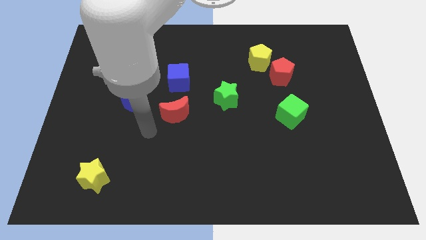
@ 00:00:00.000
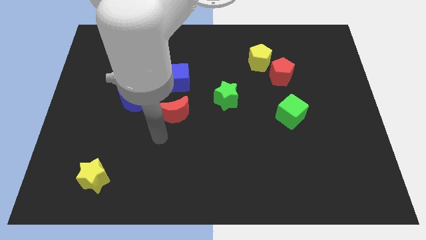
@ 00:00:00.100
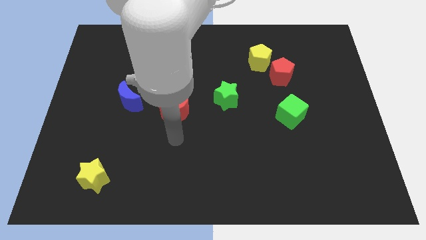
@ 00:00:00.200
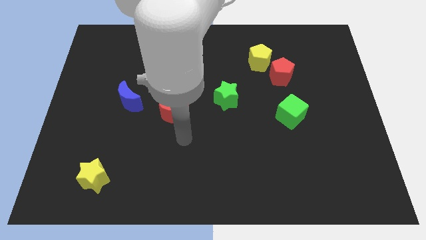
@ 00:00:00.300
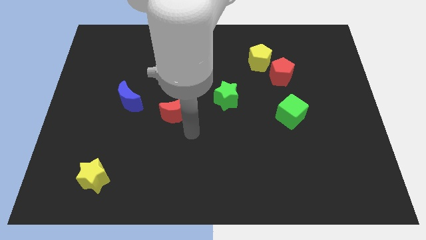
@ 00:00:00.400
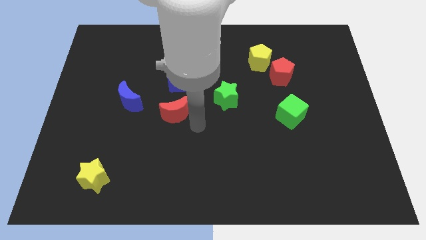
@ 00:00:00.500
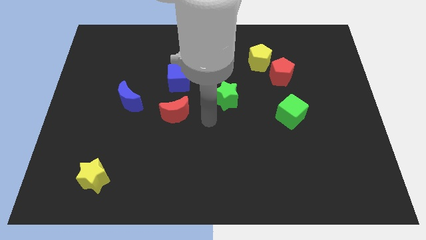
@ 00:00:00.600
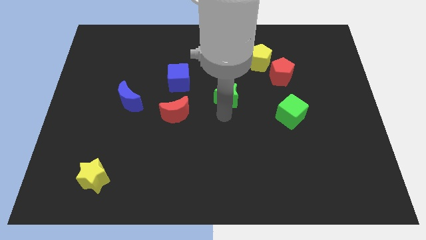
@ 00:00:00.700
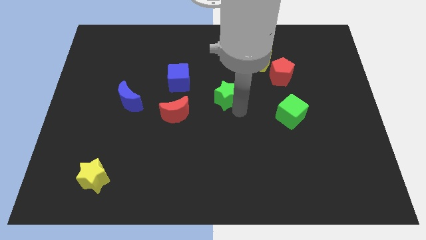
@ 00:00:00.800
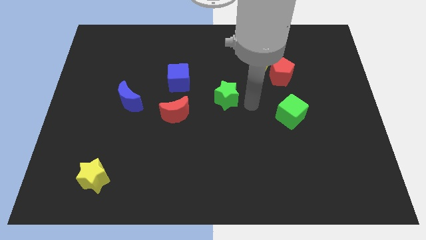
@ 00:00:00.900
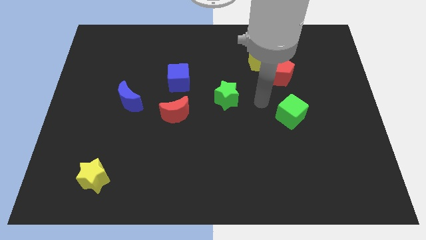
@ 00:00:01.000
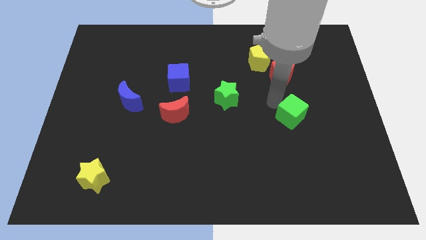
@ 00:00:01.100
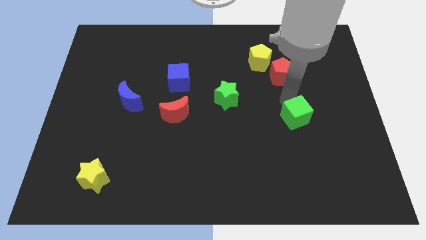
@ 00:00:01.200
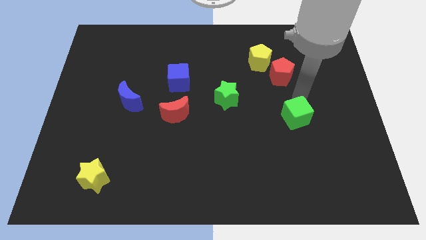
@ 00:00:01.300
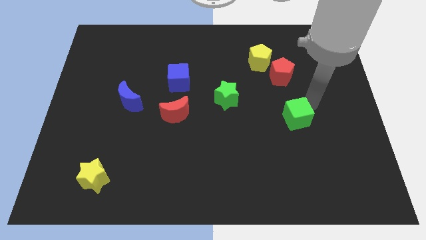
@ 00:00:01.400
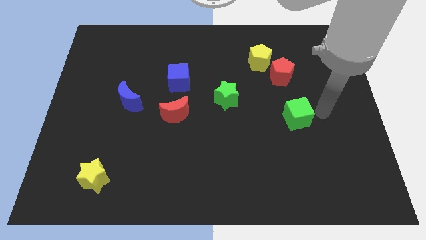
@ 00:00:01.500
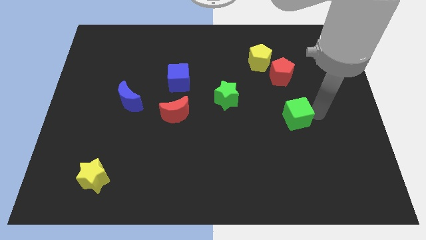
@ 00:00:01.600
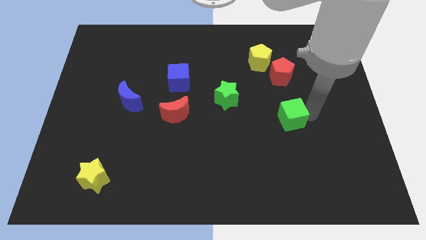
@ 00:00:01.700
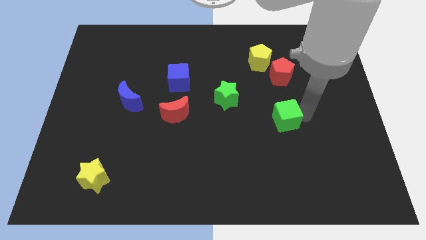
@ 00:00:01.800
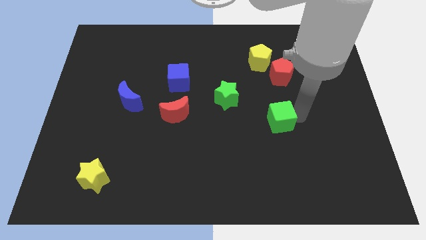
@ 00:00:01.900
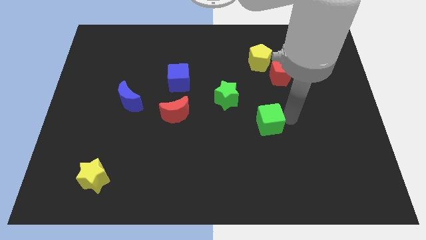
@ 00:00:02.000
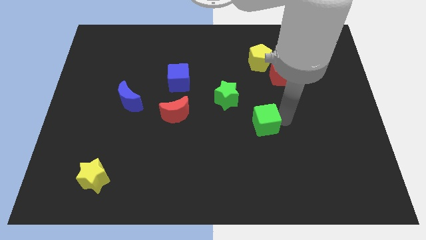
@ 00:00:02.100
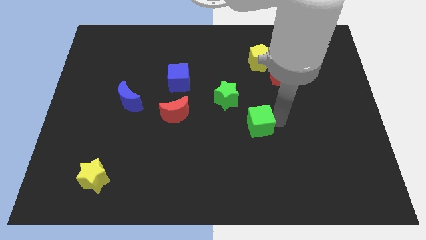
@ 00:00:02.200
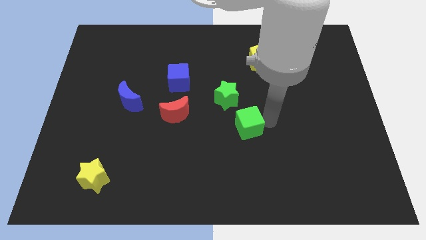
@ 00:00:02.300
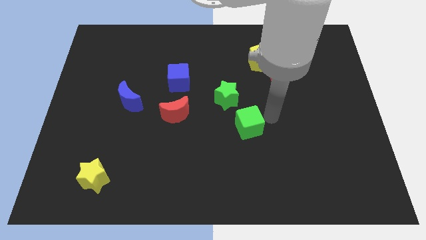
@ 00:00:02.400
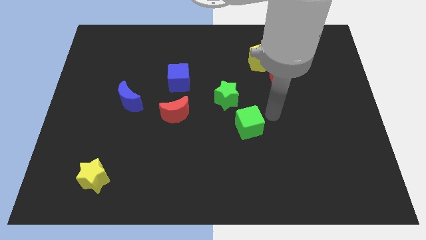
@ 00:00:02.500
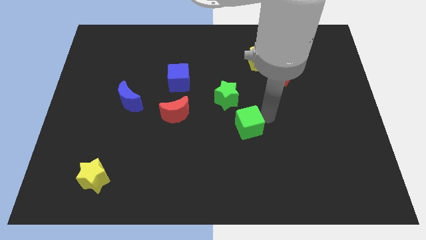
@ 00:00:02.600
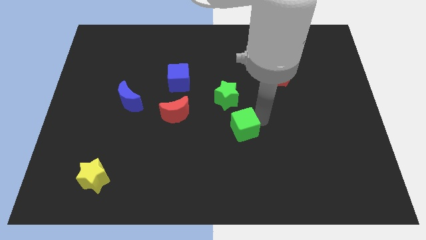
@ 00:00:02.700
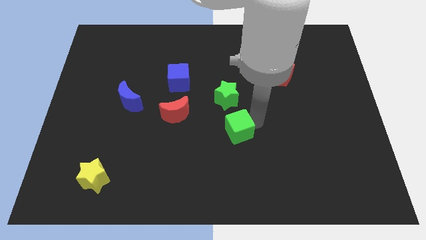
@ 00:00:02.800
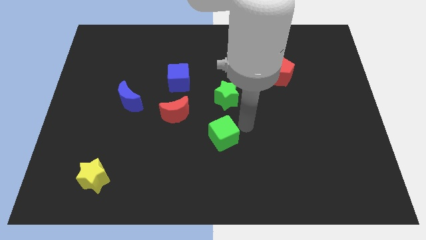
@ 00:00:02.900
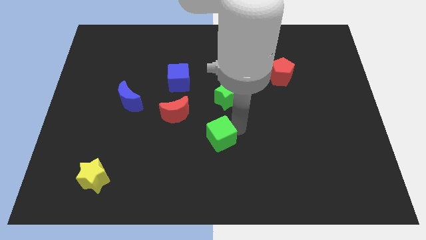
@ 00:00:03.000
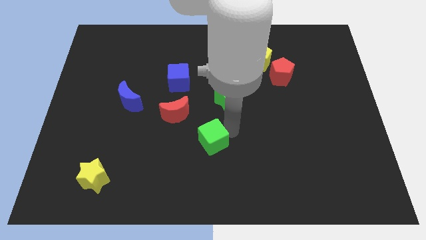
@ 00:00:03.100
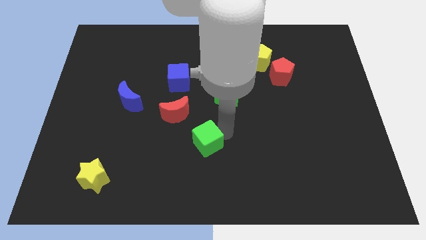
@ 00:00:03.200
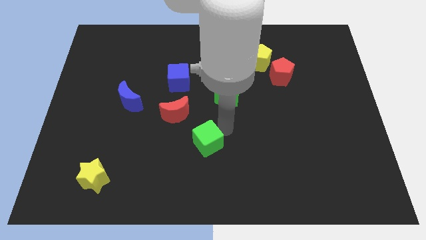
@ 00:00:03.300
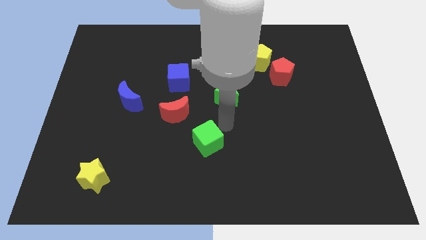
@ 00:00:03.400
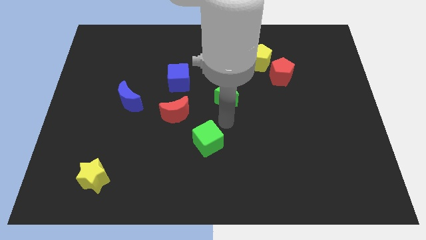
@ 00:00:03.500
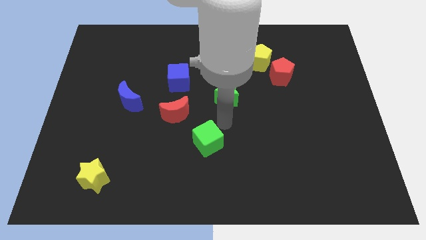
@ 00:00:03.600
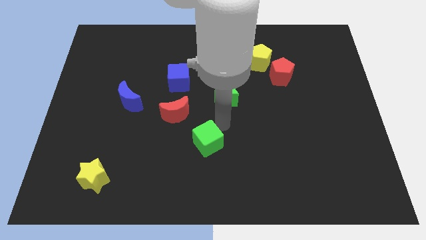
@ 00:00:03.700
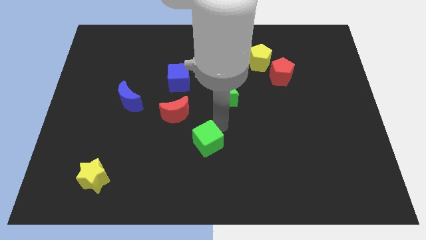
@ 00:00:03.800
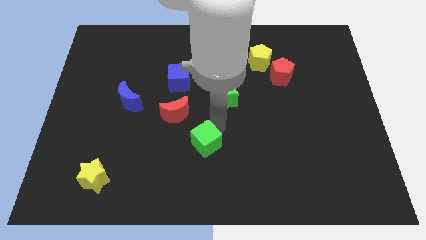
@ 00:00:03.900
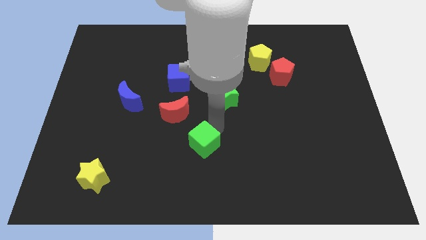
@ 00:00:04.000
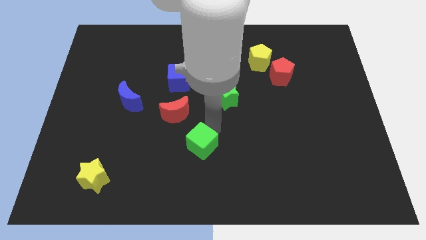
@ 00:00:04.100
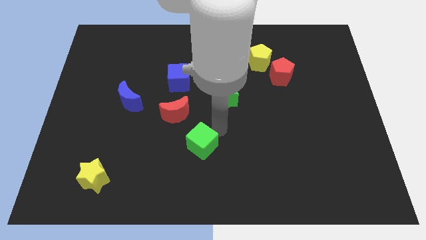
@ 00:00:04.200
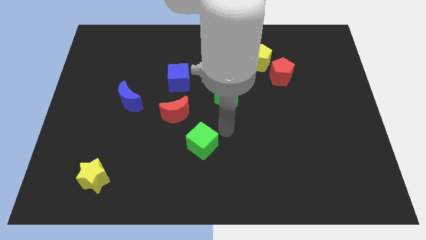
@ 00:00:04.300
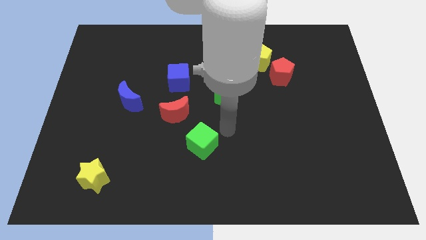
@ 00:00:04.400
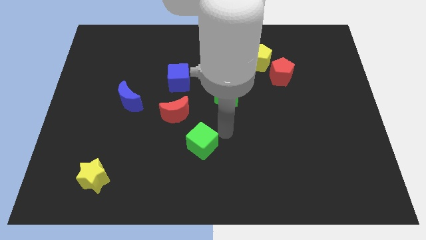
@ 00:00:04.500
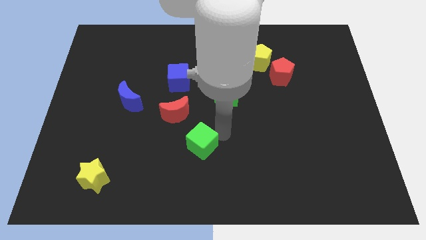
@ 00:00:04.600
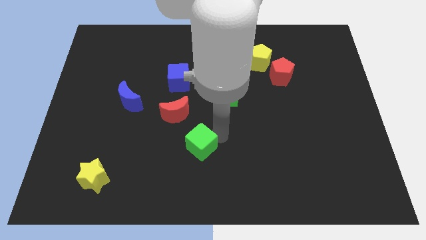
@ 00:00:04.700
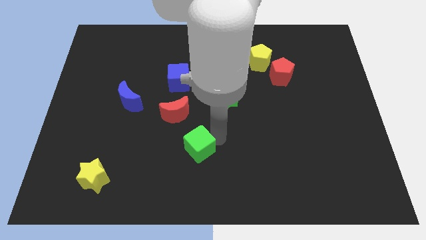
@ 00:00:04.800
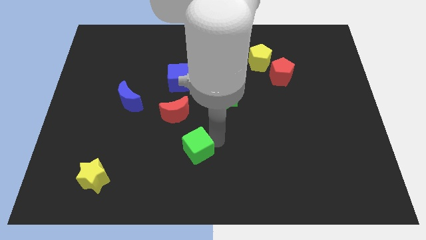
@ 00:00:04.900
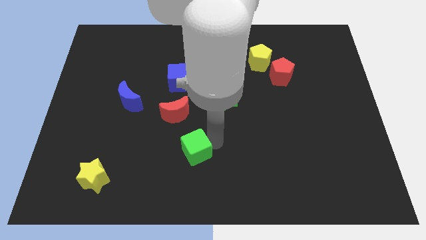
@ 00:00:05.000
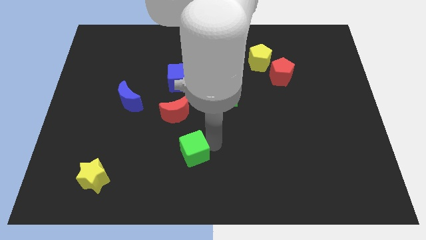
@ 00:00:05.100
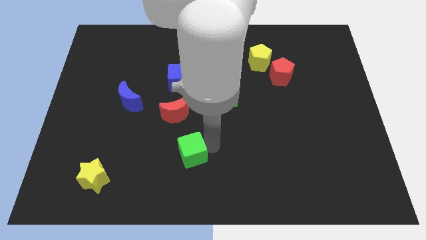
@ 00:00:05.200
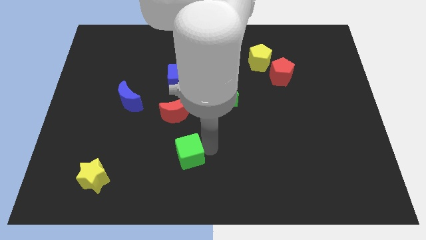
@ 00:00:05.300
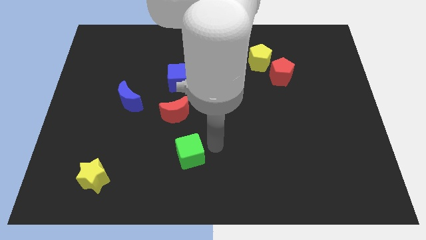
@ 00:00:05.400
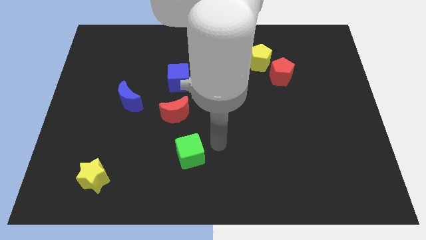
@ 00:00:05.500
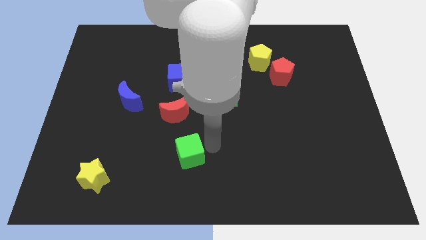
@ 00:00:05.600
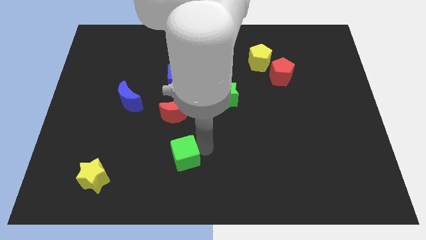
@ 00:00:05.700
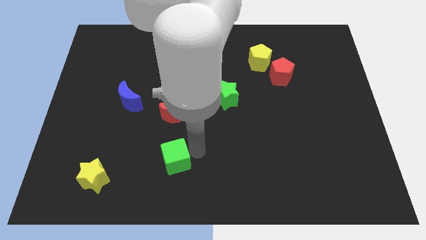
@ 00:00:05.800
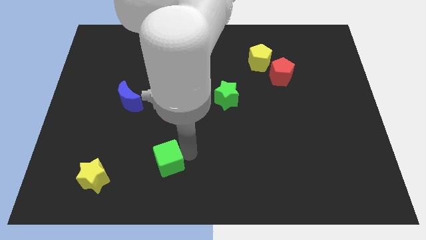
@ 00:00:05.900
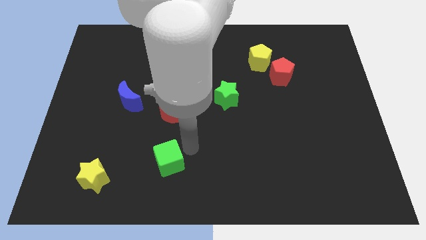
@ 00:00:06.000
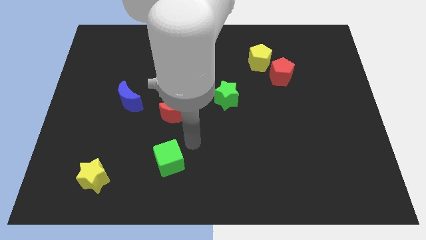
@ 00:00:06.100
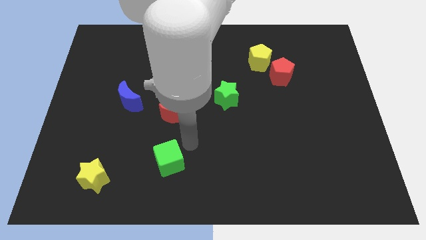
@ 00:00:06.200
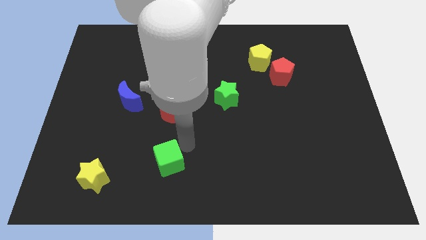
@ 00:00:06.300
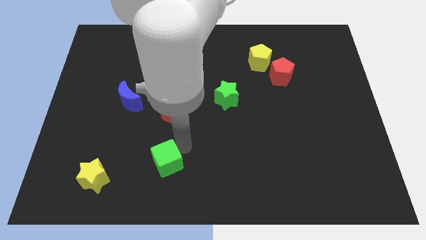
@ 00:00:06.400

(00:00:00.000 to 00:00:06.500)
move the green cube to the right of the yellow star
